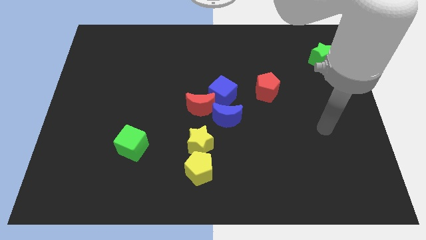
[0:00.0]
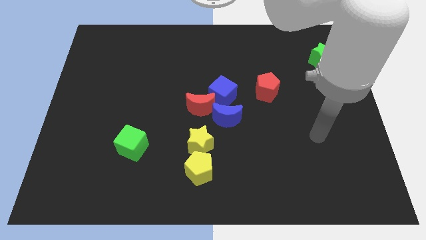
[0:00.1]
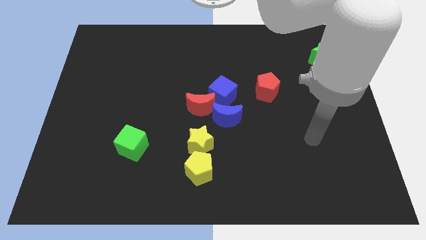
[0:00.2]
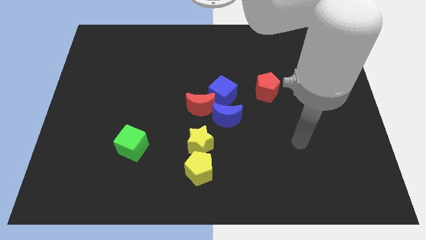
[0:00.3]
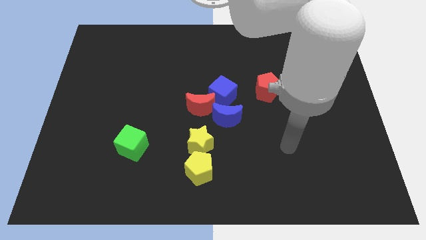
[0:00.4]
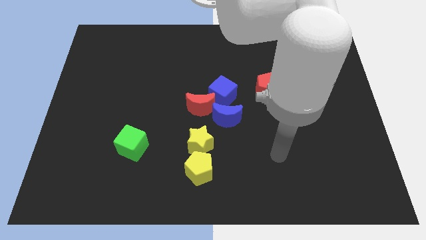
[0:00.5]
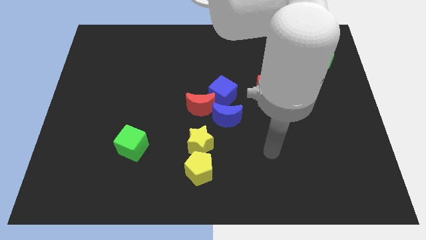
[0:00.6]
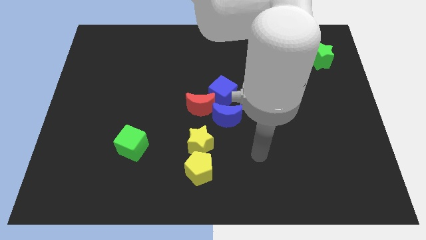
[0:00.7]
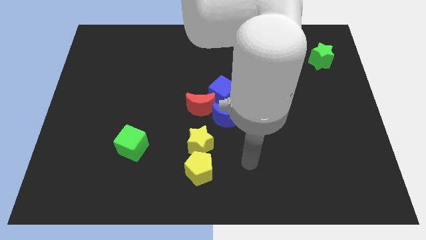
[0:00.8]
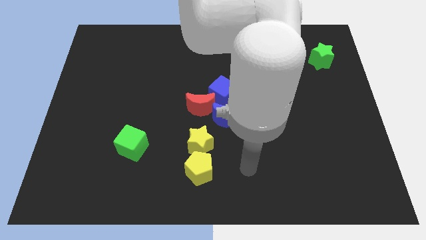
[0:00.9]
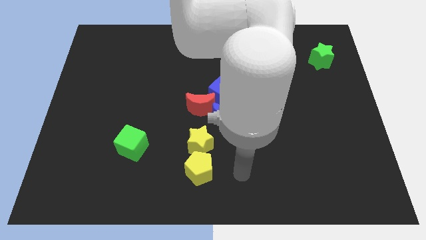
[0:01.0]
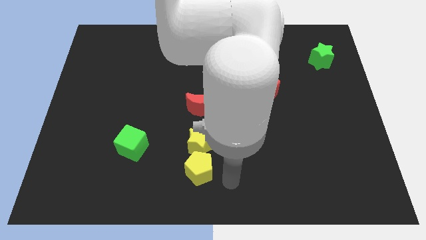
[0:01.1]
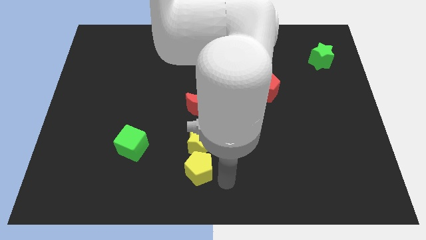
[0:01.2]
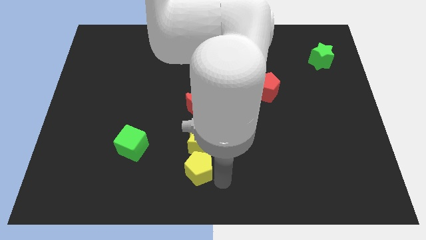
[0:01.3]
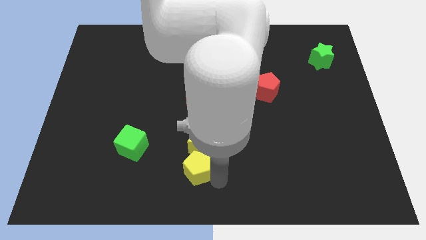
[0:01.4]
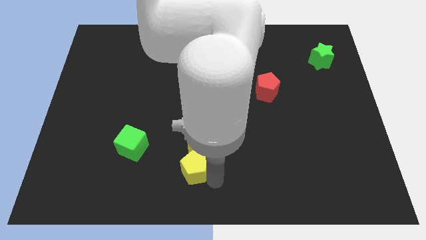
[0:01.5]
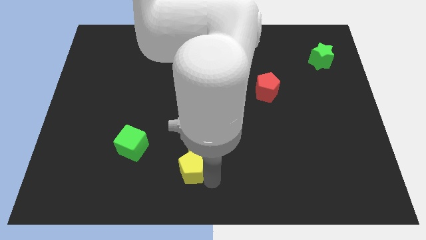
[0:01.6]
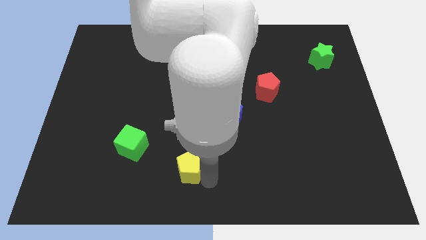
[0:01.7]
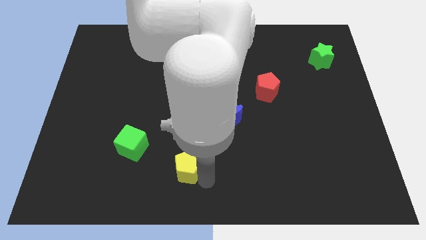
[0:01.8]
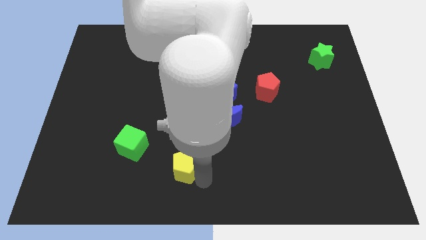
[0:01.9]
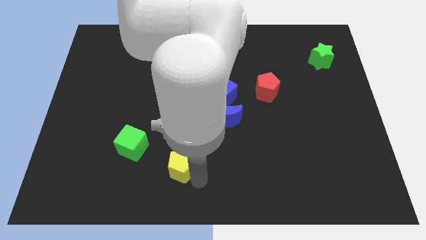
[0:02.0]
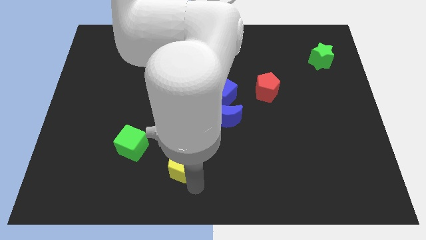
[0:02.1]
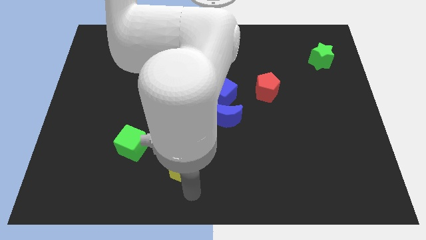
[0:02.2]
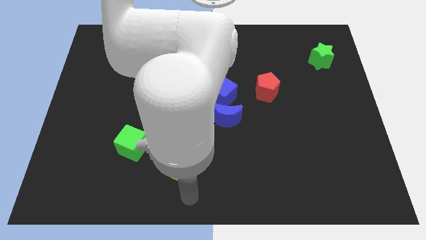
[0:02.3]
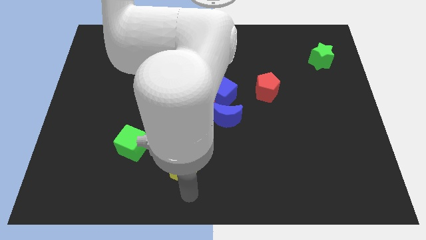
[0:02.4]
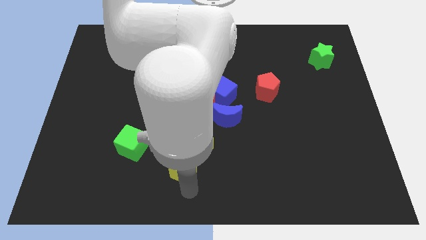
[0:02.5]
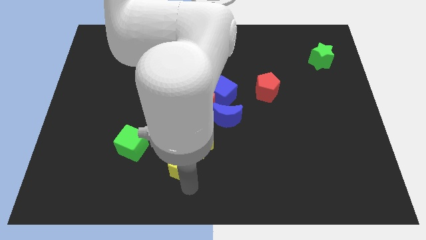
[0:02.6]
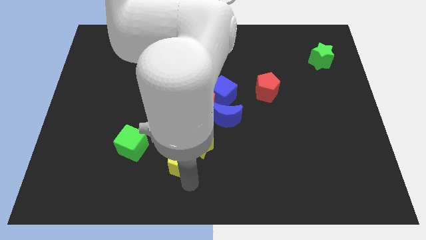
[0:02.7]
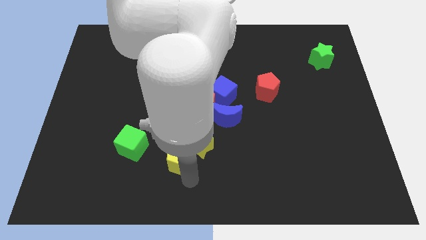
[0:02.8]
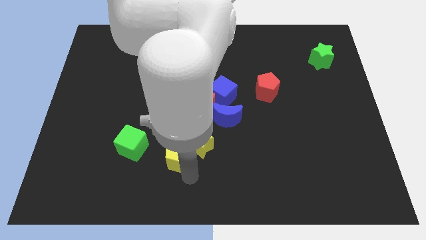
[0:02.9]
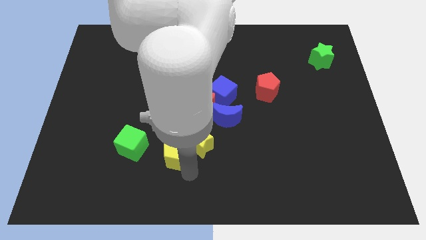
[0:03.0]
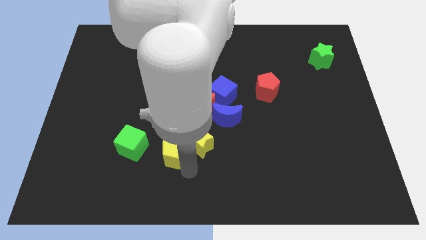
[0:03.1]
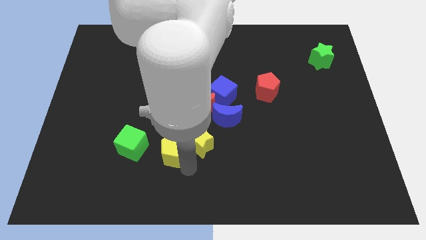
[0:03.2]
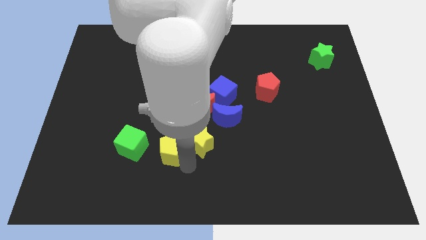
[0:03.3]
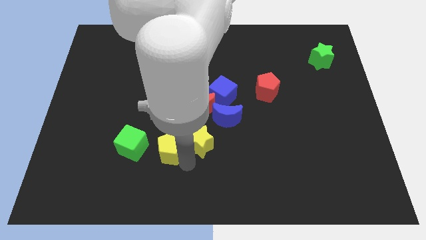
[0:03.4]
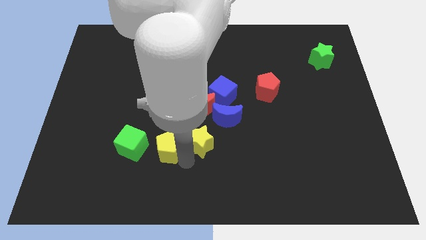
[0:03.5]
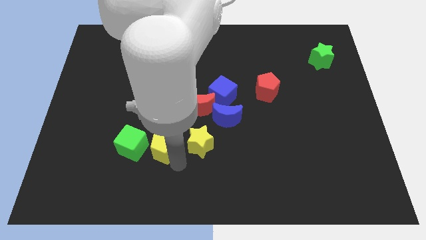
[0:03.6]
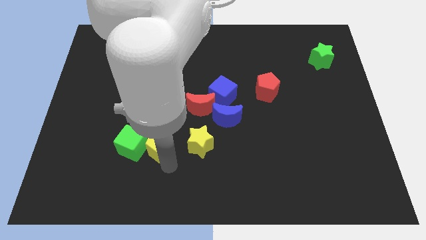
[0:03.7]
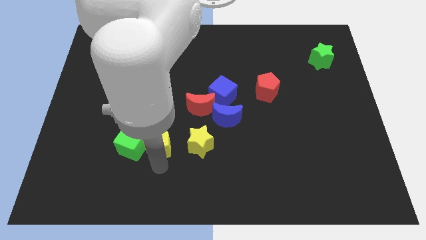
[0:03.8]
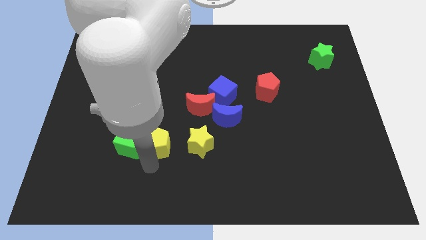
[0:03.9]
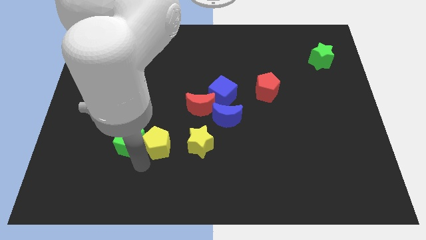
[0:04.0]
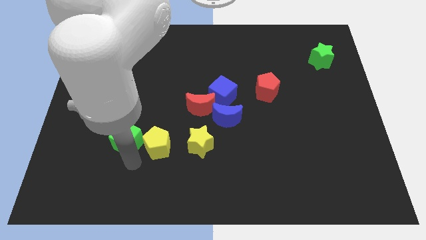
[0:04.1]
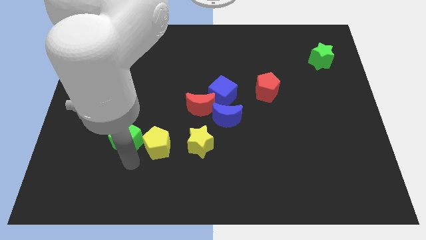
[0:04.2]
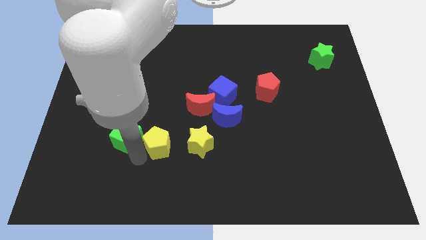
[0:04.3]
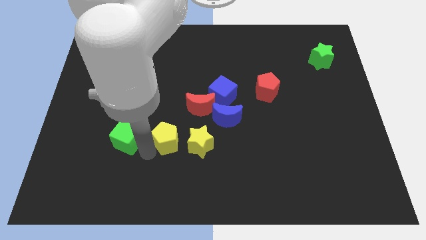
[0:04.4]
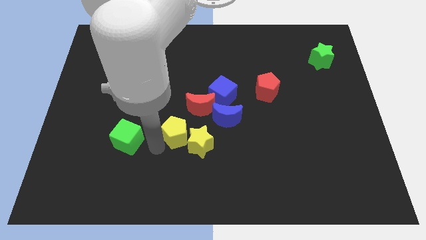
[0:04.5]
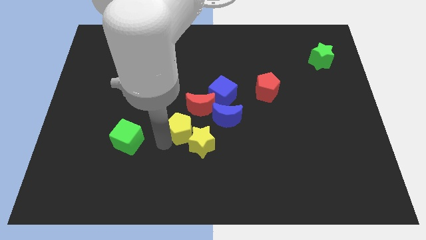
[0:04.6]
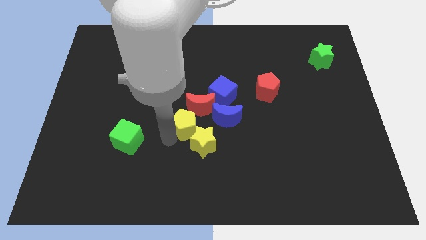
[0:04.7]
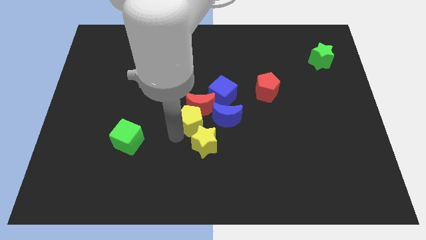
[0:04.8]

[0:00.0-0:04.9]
slide the yellow pentagon close to the red moon

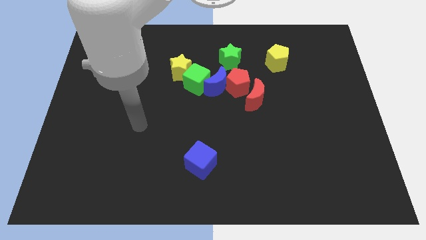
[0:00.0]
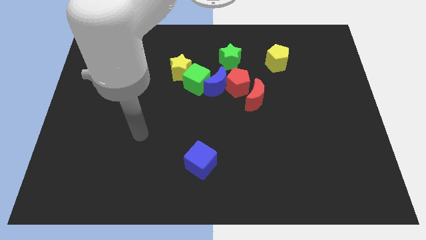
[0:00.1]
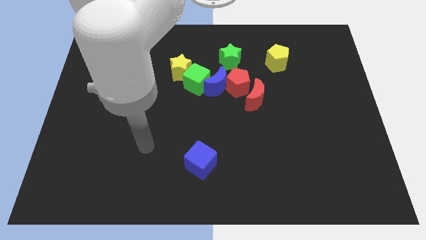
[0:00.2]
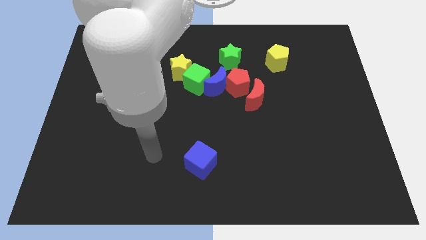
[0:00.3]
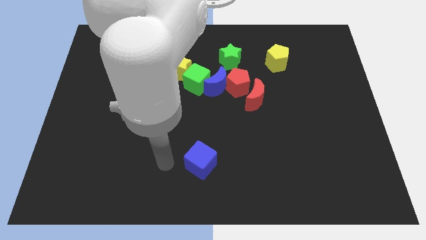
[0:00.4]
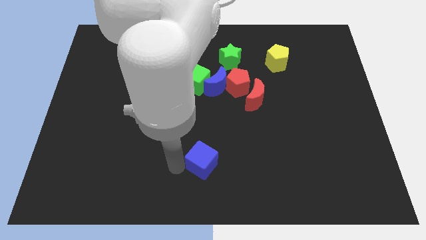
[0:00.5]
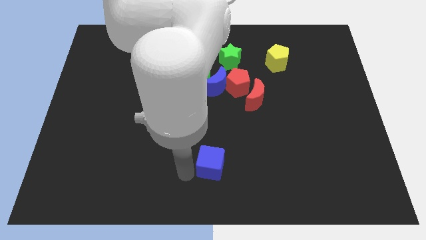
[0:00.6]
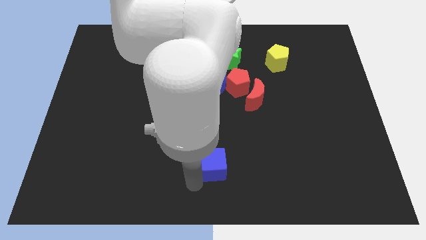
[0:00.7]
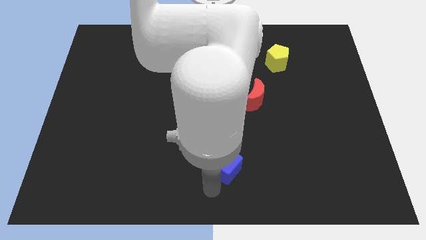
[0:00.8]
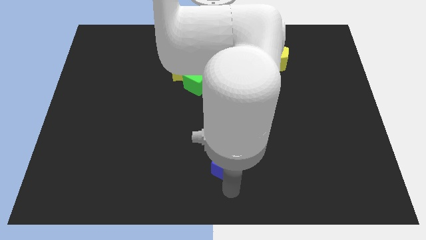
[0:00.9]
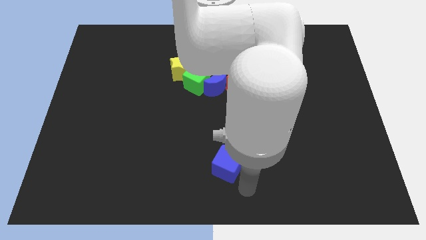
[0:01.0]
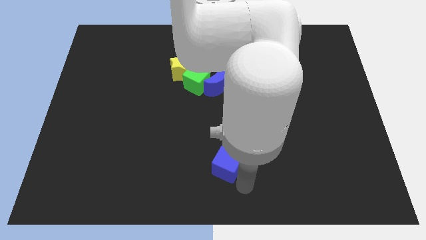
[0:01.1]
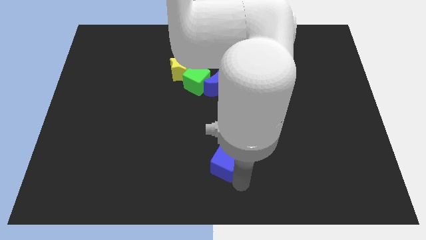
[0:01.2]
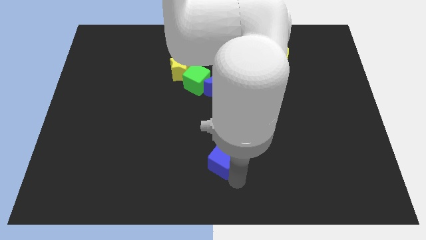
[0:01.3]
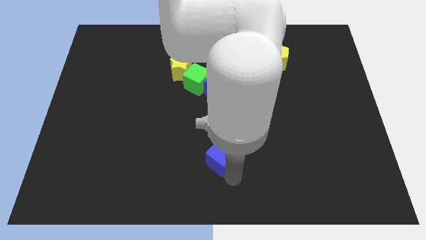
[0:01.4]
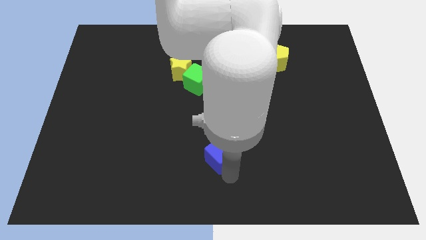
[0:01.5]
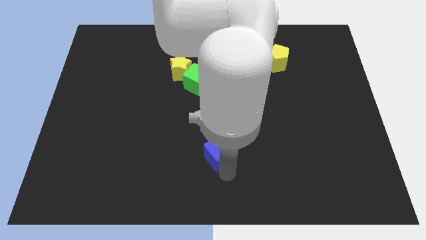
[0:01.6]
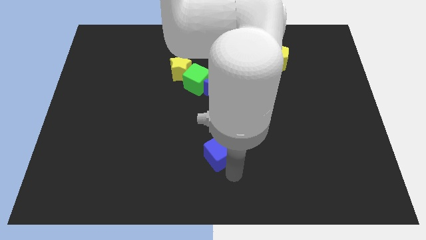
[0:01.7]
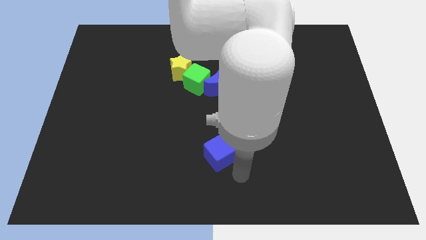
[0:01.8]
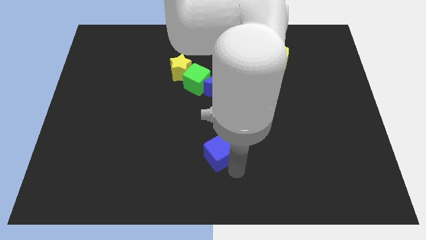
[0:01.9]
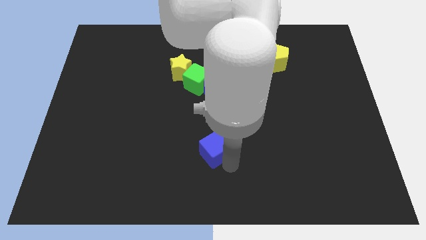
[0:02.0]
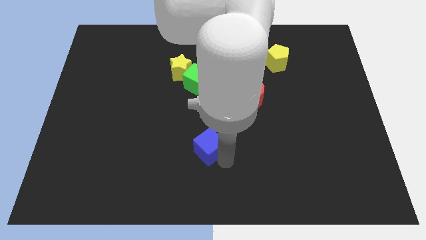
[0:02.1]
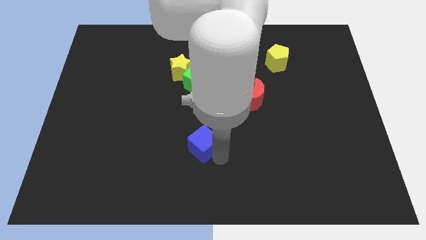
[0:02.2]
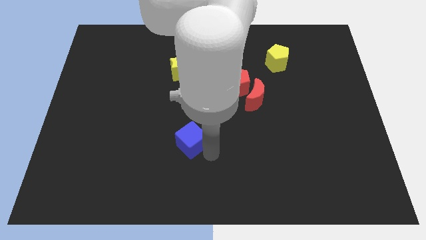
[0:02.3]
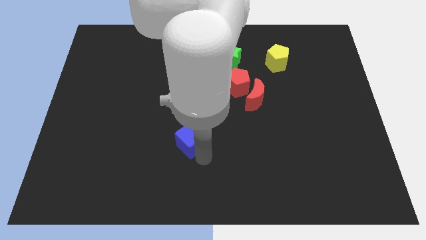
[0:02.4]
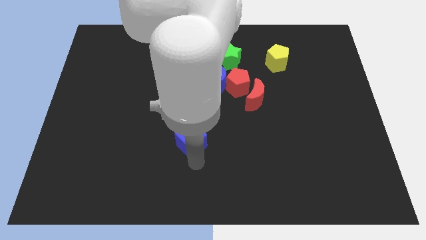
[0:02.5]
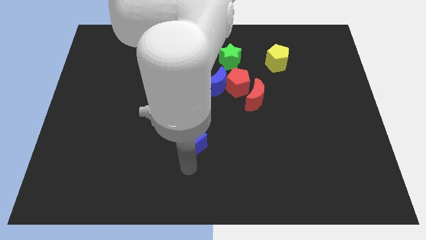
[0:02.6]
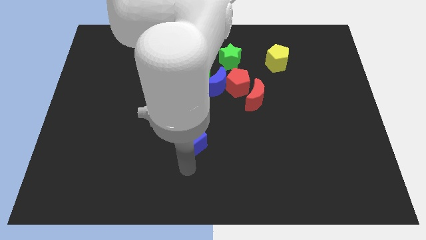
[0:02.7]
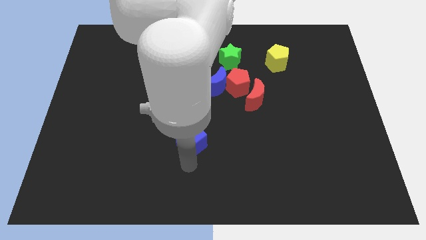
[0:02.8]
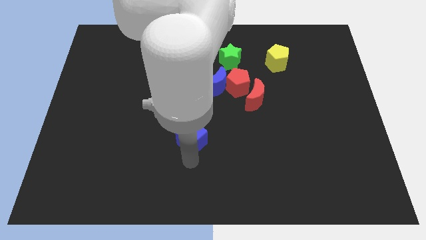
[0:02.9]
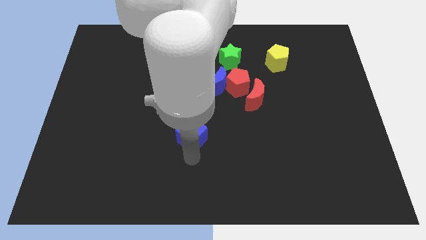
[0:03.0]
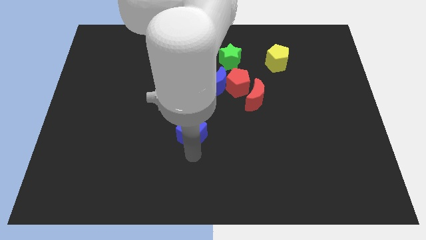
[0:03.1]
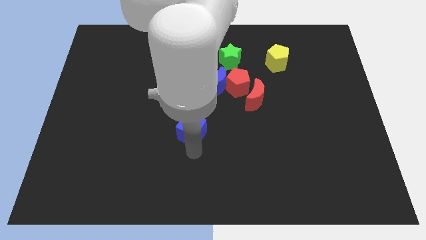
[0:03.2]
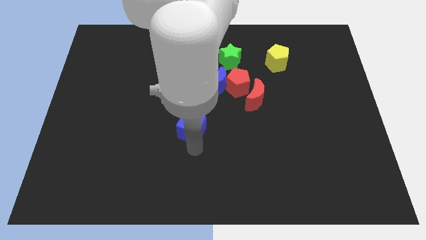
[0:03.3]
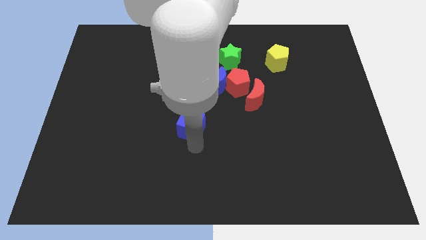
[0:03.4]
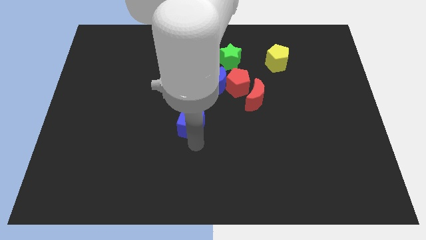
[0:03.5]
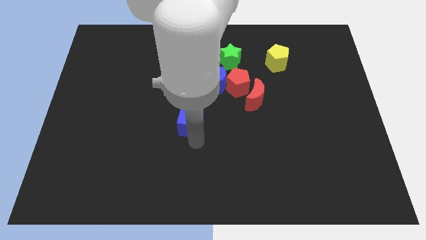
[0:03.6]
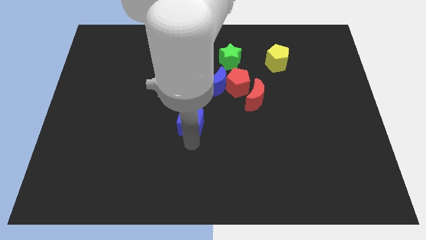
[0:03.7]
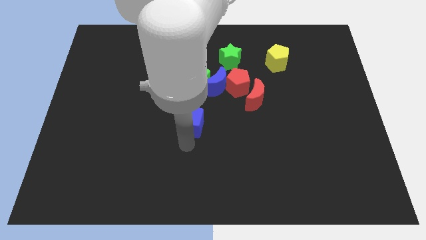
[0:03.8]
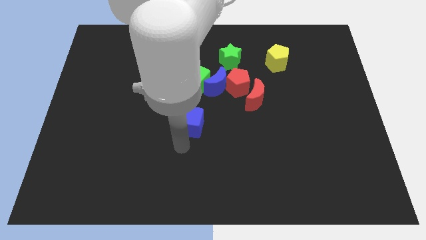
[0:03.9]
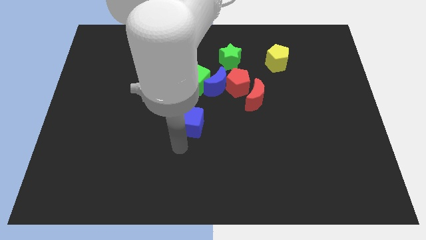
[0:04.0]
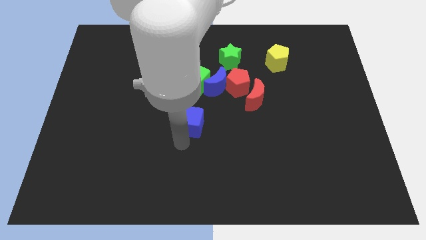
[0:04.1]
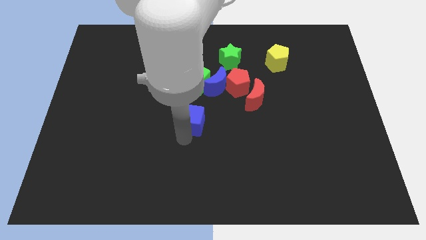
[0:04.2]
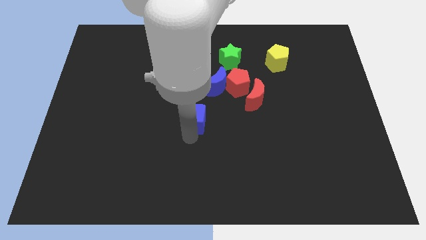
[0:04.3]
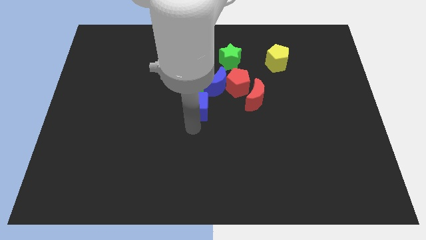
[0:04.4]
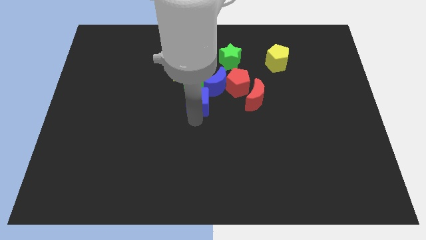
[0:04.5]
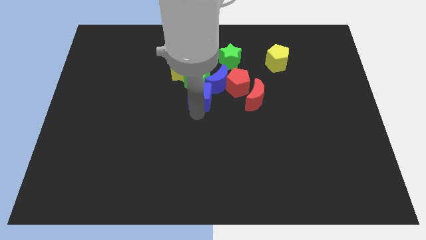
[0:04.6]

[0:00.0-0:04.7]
push the blue cube to the green cube
